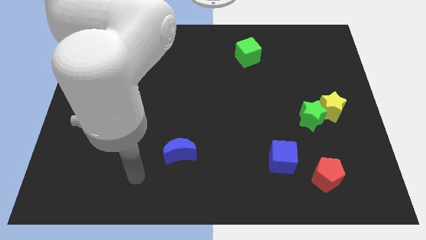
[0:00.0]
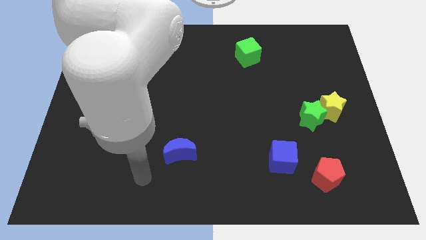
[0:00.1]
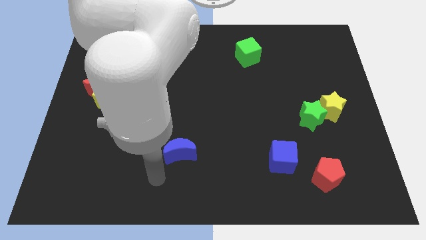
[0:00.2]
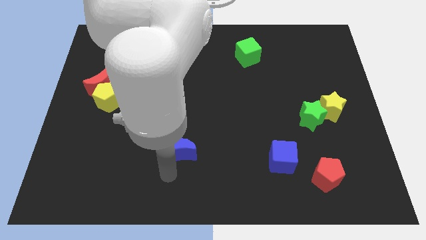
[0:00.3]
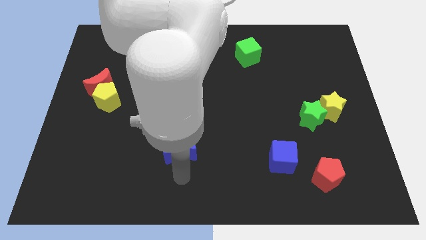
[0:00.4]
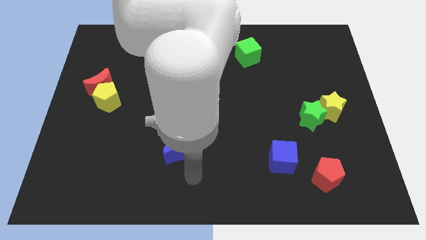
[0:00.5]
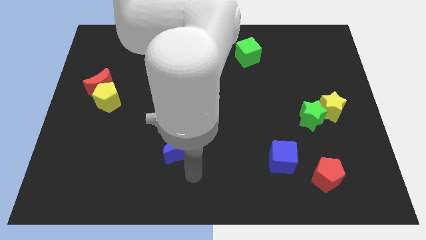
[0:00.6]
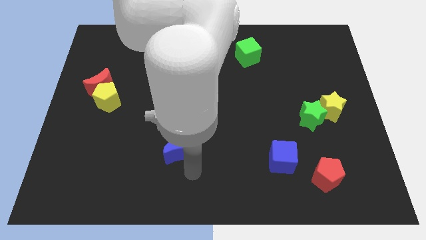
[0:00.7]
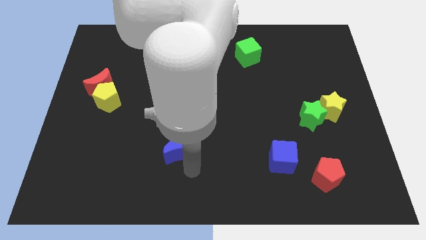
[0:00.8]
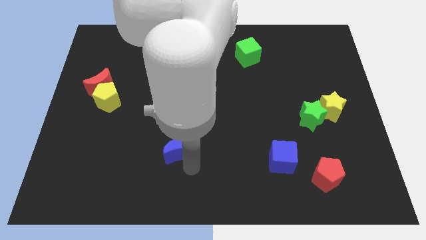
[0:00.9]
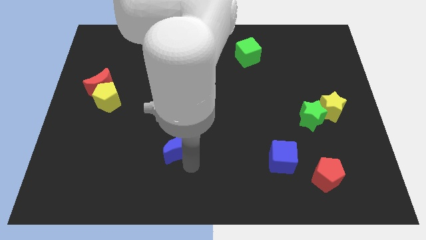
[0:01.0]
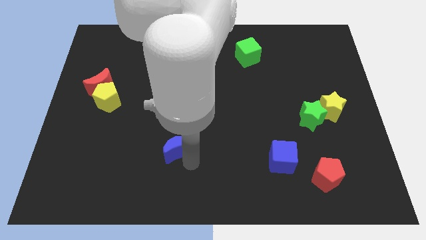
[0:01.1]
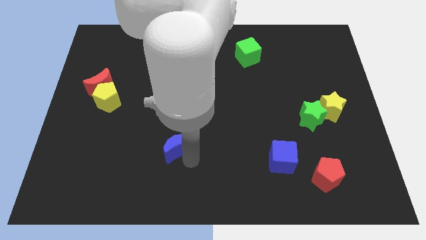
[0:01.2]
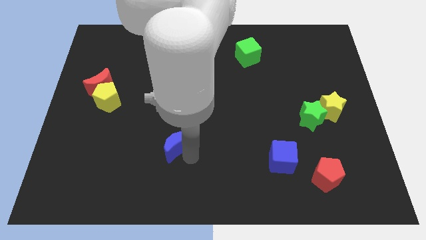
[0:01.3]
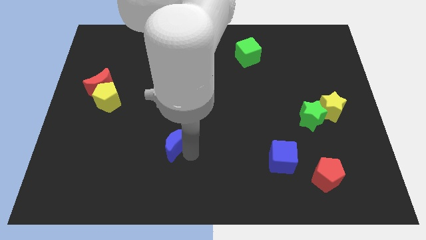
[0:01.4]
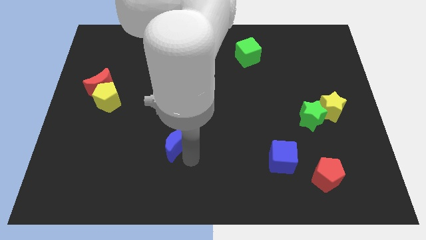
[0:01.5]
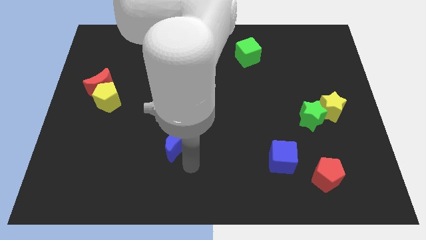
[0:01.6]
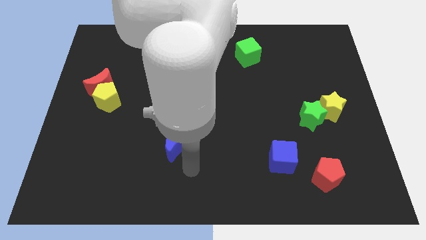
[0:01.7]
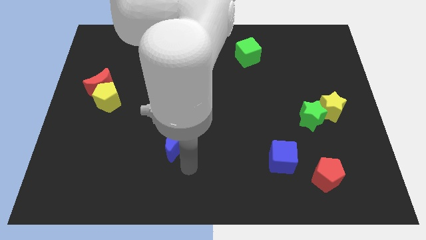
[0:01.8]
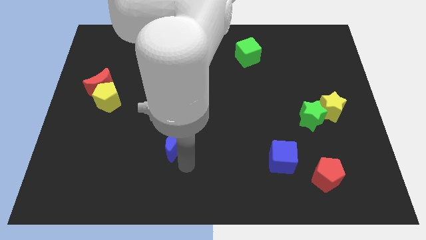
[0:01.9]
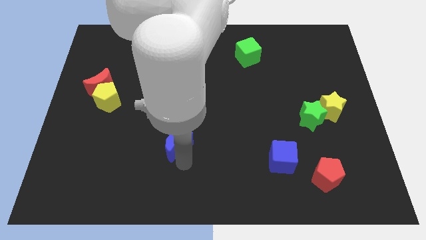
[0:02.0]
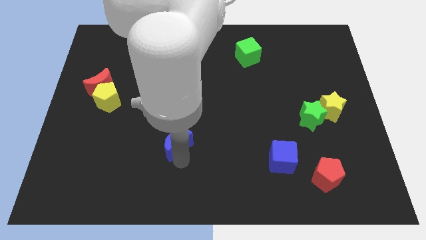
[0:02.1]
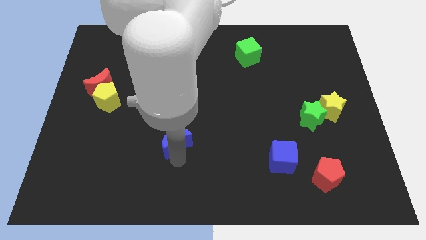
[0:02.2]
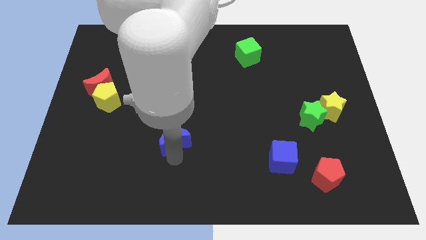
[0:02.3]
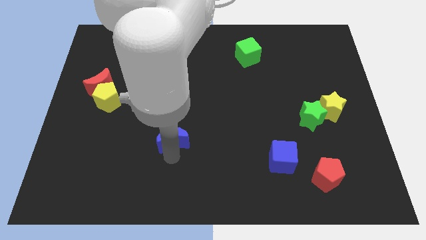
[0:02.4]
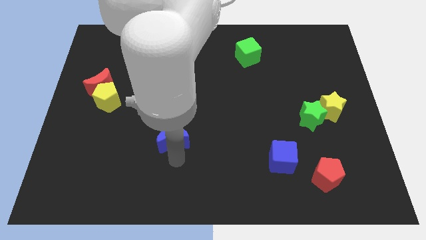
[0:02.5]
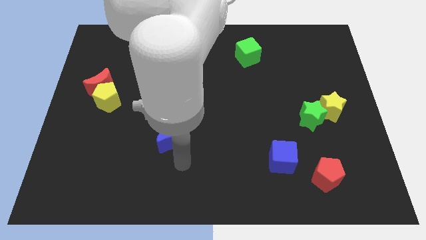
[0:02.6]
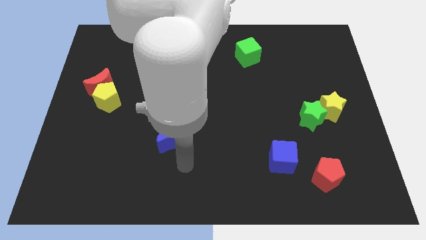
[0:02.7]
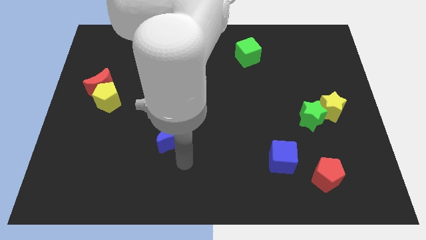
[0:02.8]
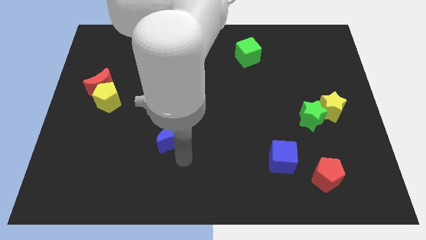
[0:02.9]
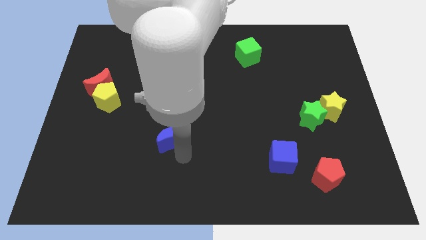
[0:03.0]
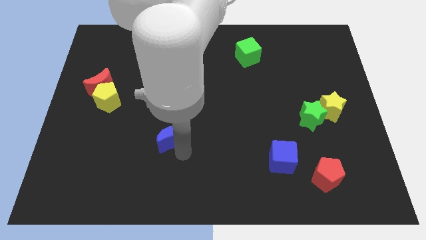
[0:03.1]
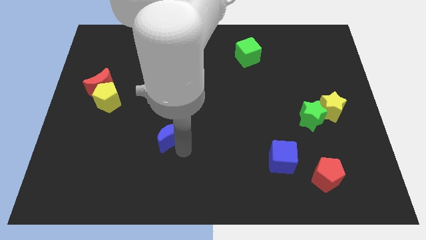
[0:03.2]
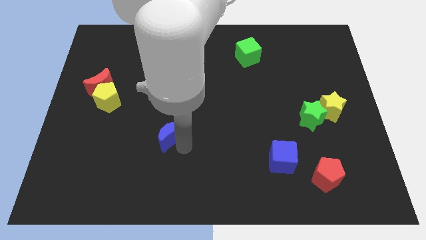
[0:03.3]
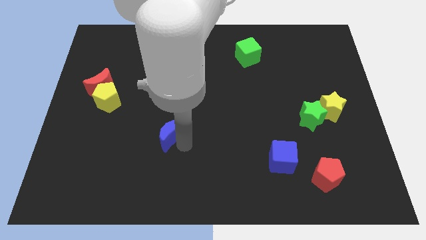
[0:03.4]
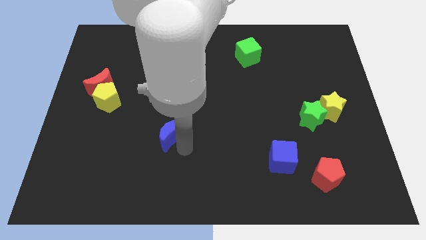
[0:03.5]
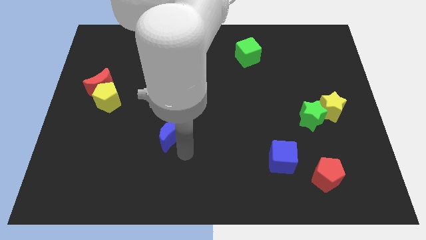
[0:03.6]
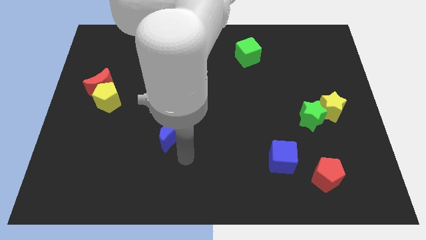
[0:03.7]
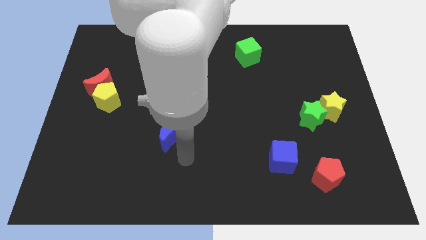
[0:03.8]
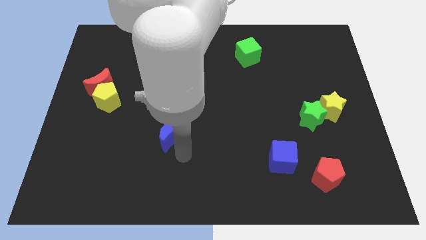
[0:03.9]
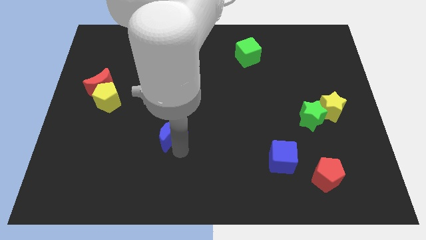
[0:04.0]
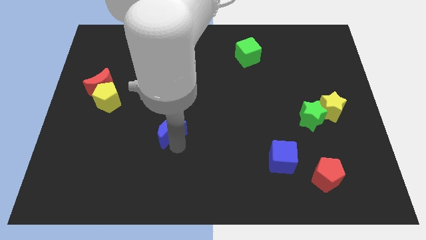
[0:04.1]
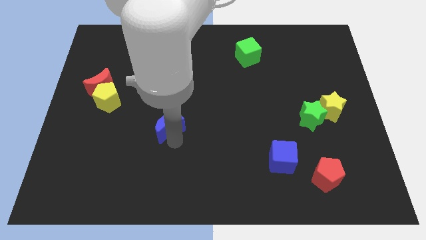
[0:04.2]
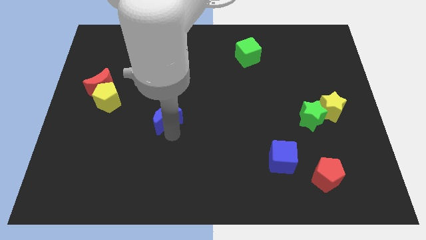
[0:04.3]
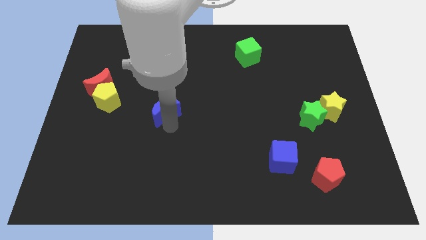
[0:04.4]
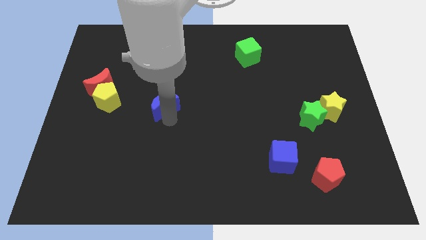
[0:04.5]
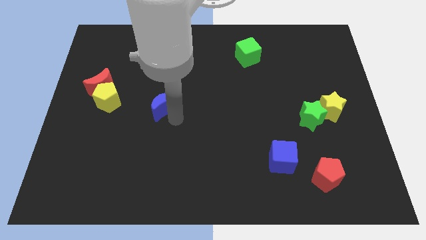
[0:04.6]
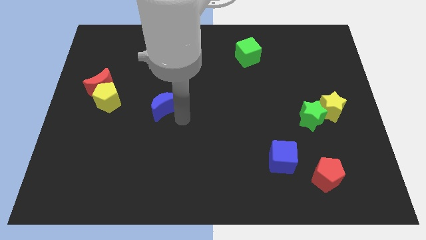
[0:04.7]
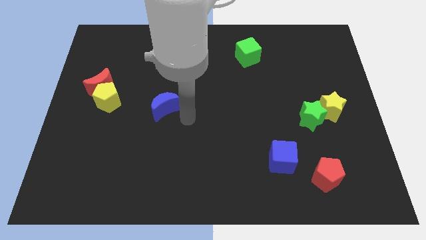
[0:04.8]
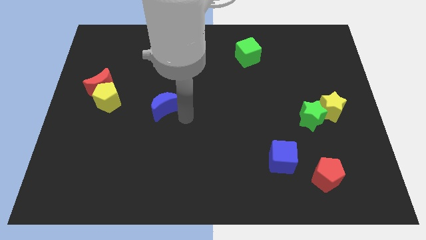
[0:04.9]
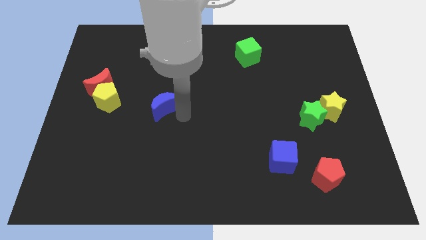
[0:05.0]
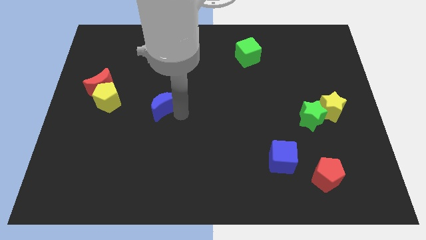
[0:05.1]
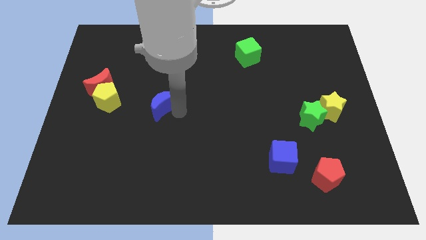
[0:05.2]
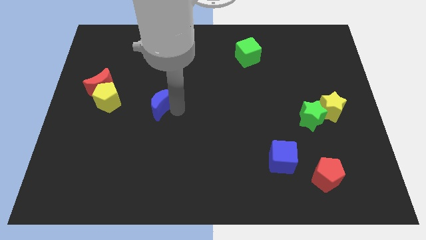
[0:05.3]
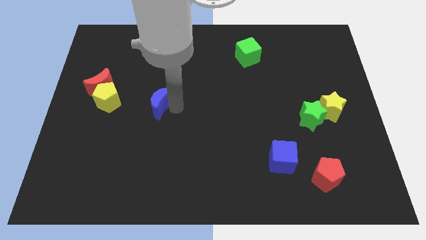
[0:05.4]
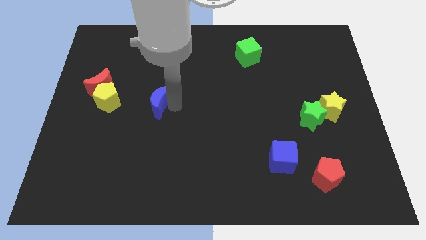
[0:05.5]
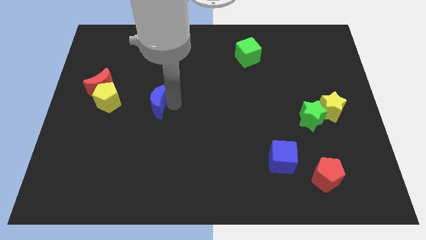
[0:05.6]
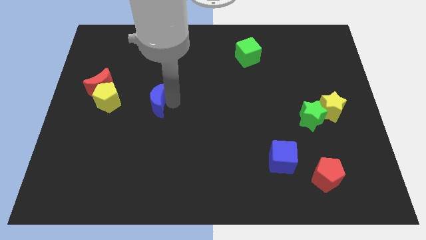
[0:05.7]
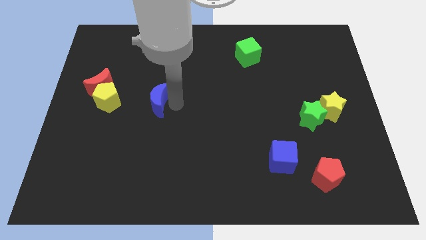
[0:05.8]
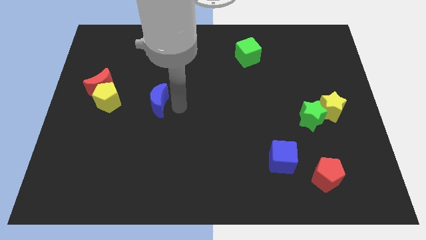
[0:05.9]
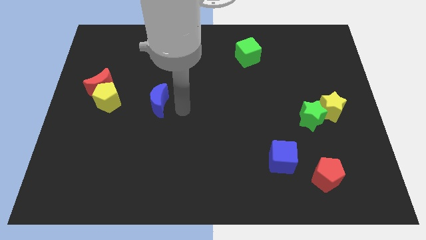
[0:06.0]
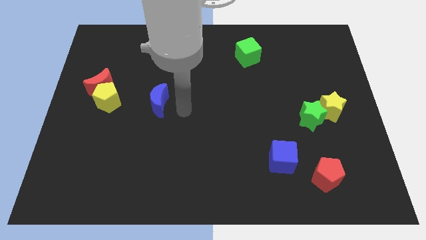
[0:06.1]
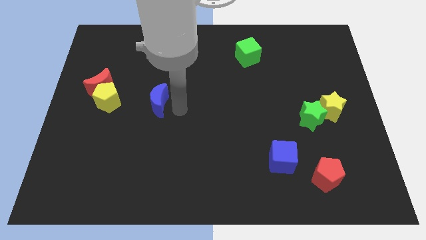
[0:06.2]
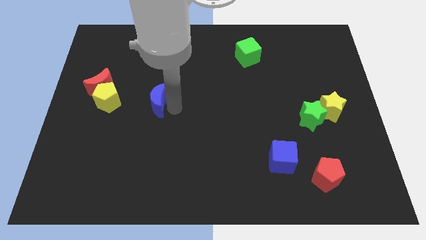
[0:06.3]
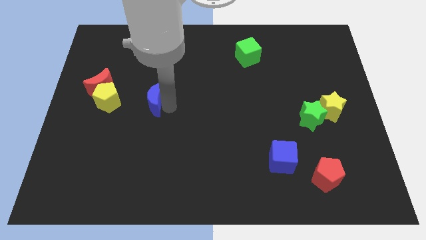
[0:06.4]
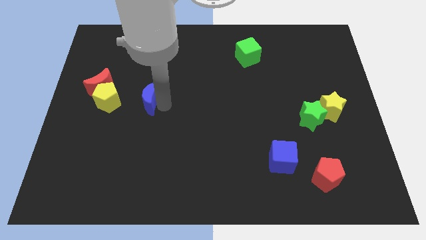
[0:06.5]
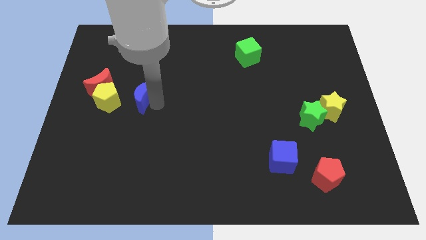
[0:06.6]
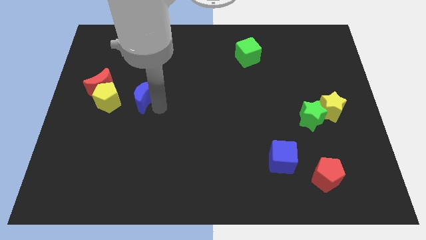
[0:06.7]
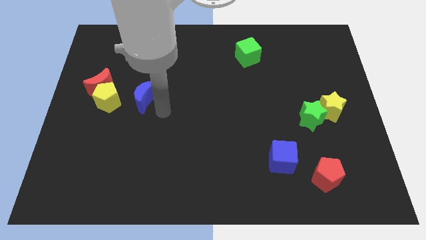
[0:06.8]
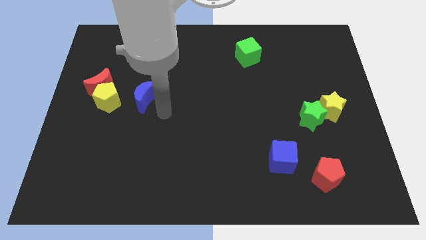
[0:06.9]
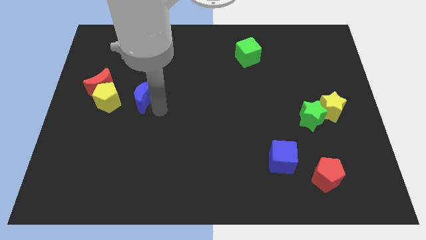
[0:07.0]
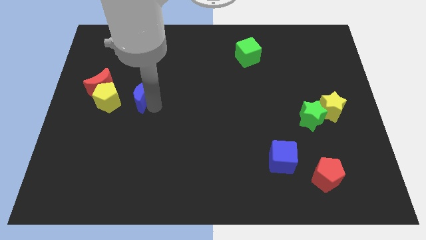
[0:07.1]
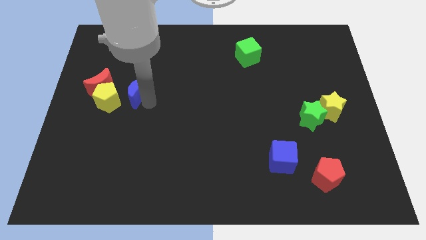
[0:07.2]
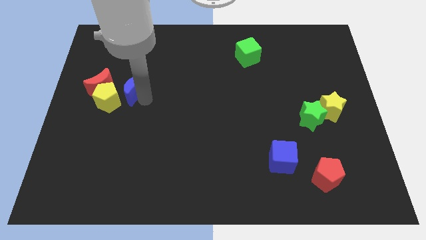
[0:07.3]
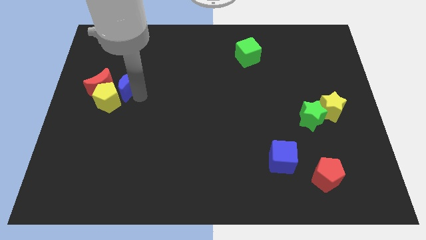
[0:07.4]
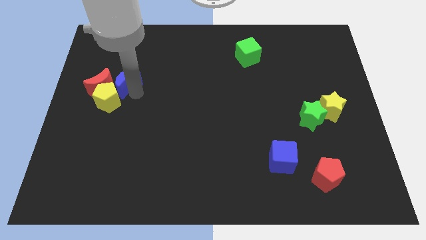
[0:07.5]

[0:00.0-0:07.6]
slide the blue moon close to the red moon

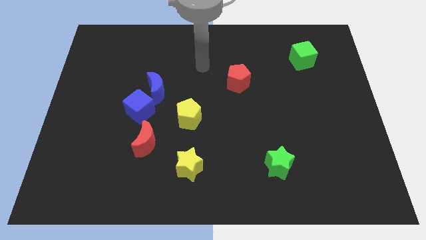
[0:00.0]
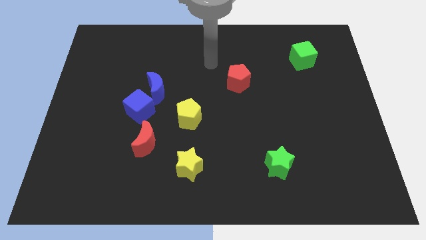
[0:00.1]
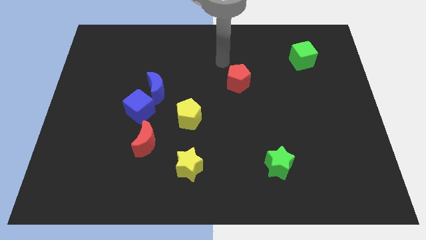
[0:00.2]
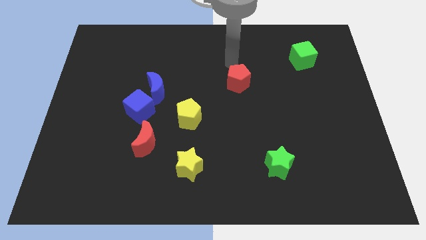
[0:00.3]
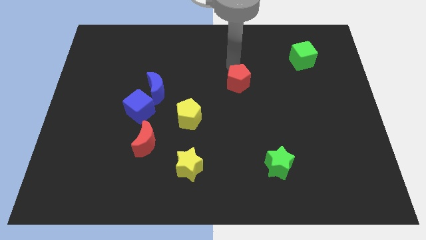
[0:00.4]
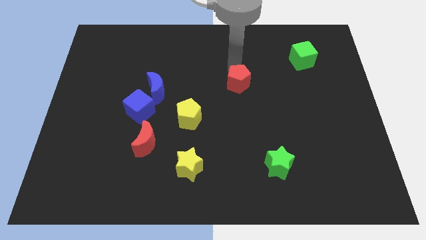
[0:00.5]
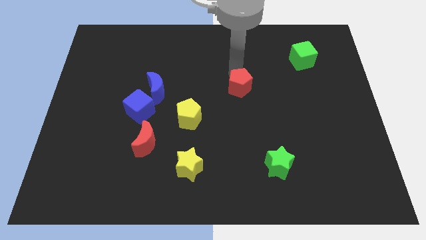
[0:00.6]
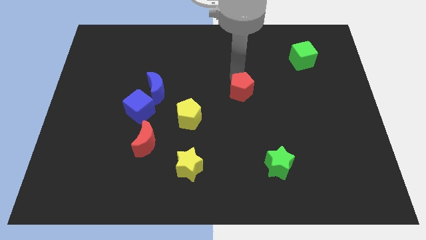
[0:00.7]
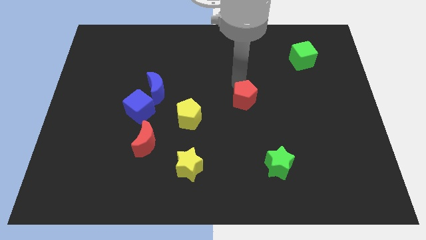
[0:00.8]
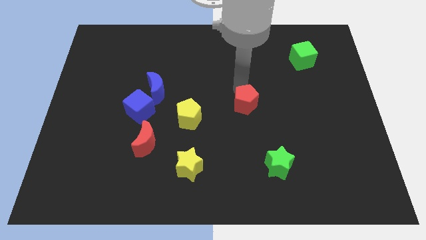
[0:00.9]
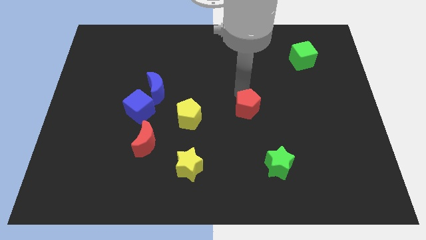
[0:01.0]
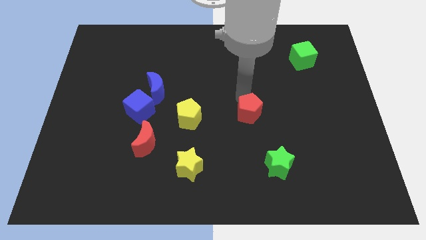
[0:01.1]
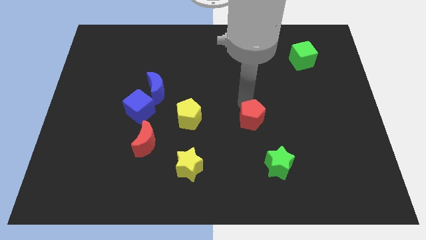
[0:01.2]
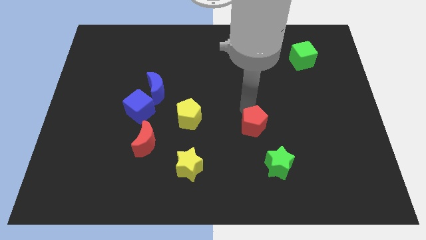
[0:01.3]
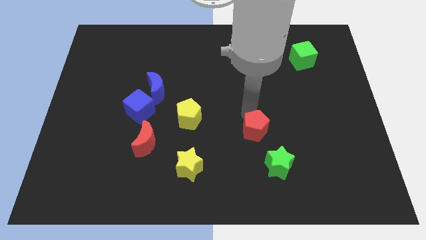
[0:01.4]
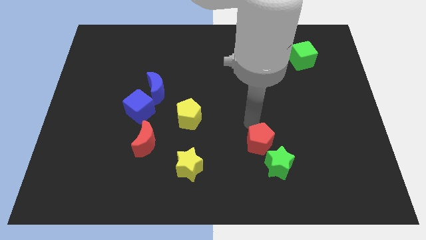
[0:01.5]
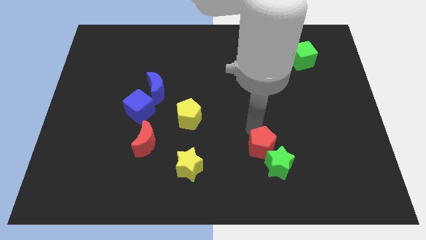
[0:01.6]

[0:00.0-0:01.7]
push the red pentagon towards the green star
